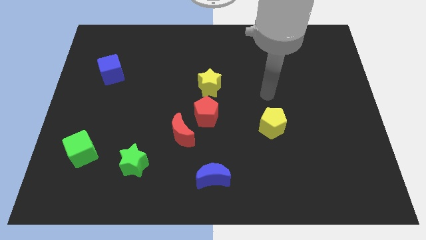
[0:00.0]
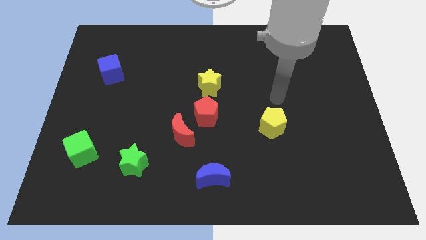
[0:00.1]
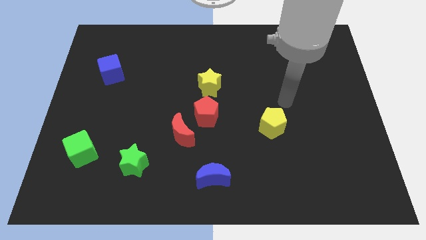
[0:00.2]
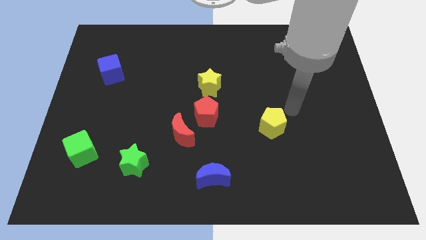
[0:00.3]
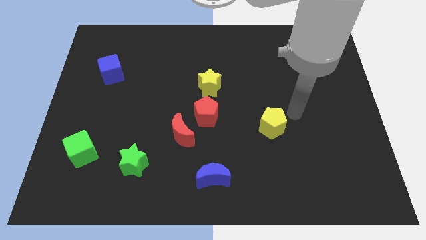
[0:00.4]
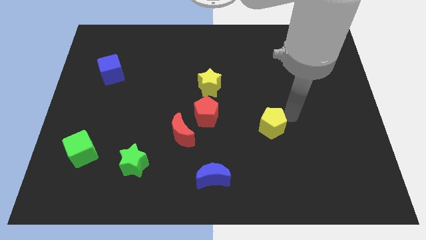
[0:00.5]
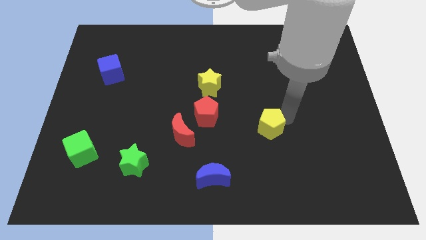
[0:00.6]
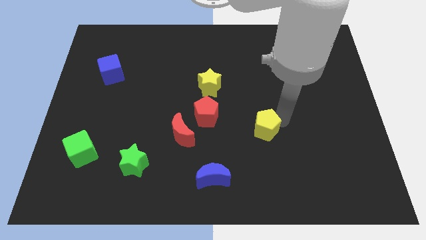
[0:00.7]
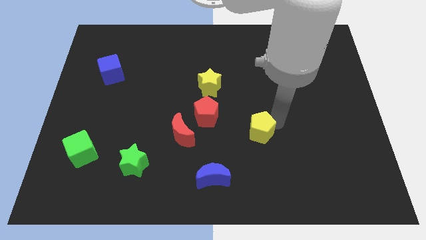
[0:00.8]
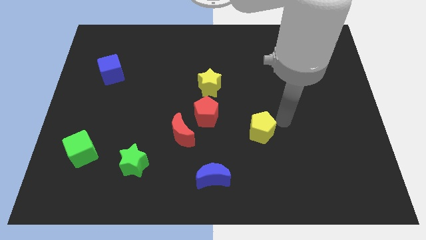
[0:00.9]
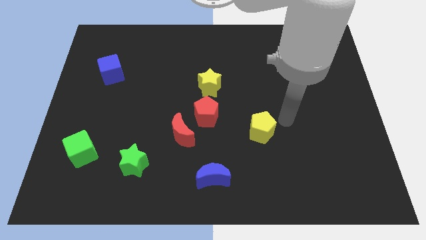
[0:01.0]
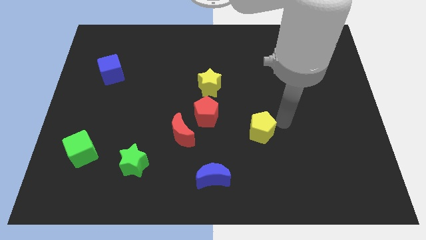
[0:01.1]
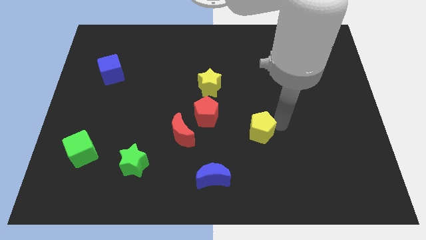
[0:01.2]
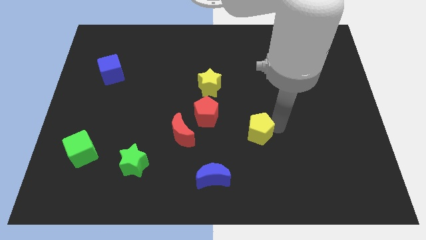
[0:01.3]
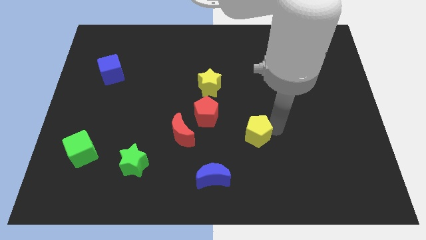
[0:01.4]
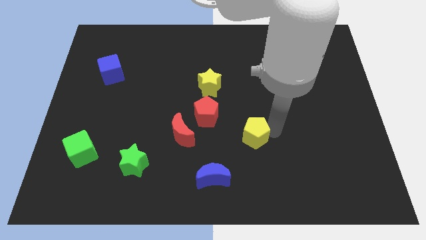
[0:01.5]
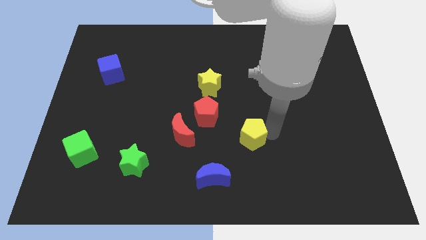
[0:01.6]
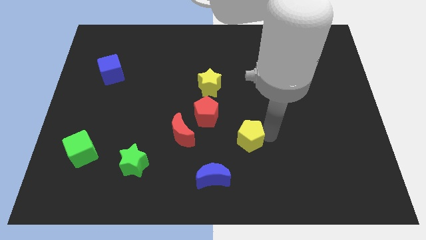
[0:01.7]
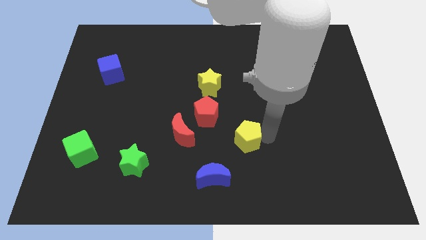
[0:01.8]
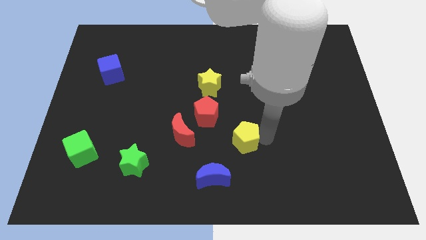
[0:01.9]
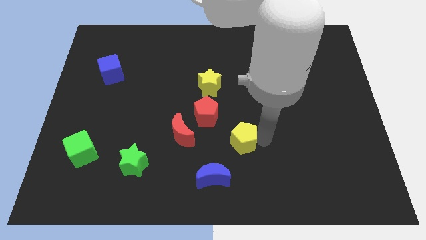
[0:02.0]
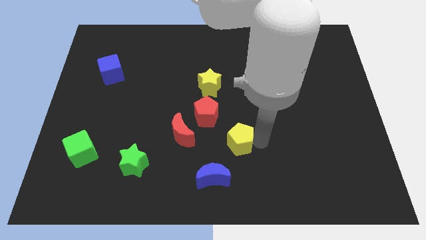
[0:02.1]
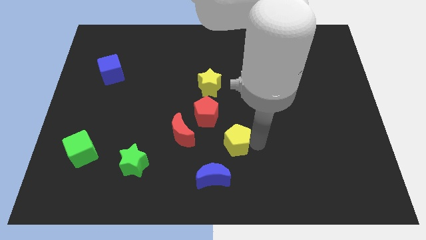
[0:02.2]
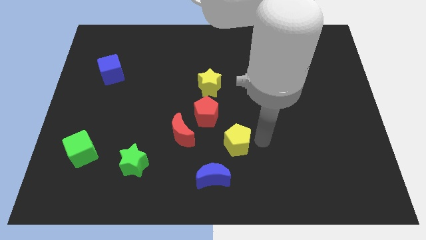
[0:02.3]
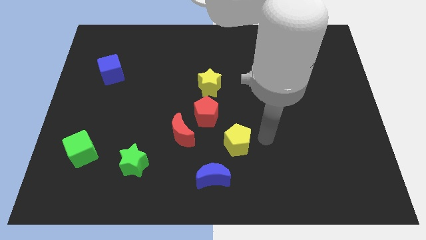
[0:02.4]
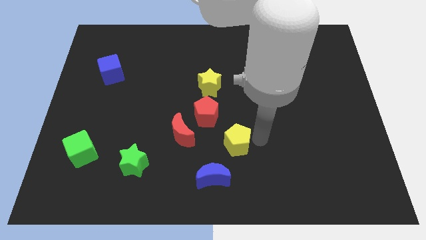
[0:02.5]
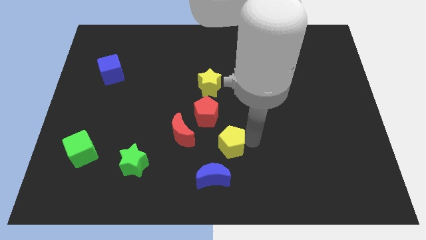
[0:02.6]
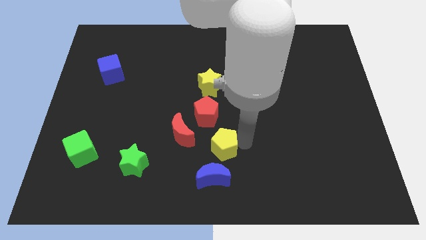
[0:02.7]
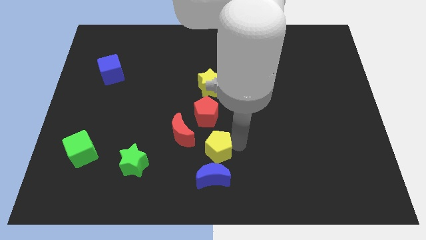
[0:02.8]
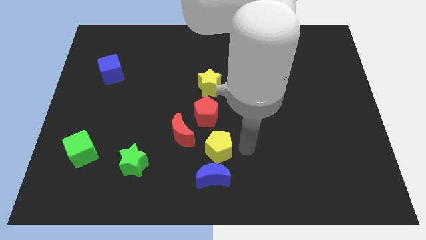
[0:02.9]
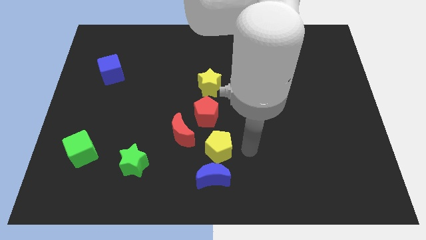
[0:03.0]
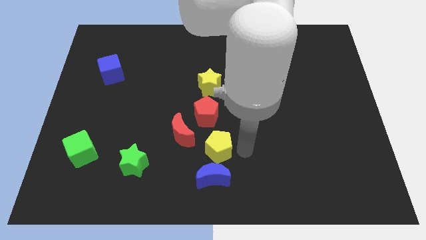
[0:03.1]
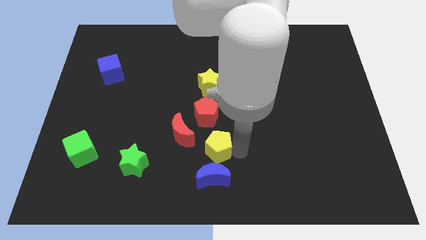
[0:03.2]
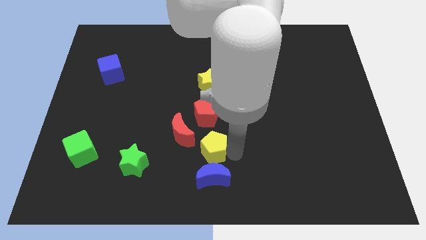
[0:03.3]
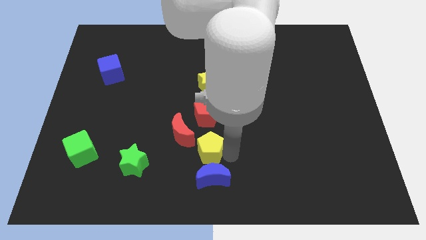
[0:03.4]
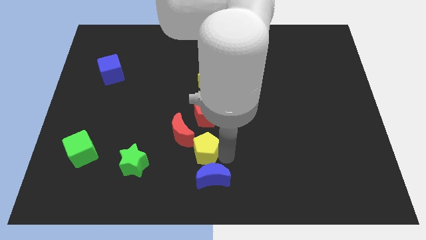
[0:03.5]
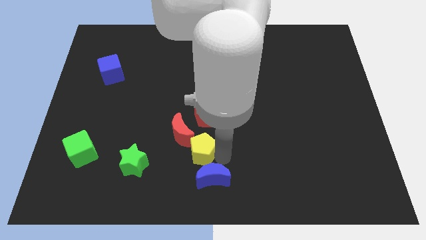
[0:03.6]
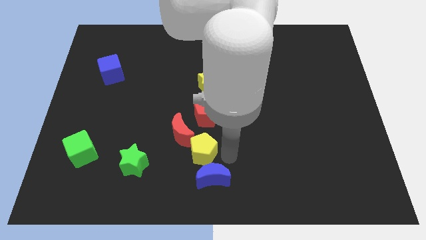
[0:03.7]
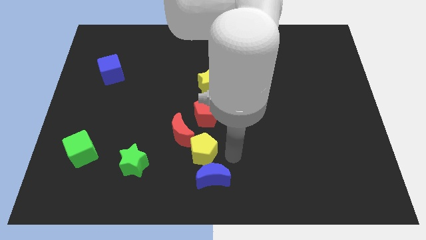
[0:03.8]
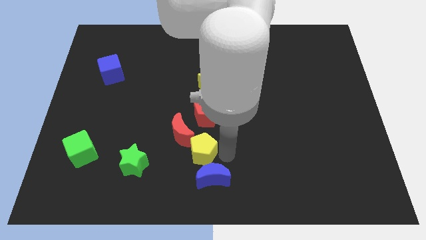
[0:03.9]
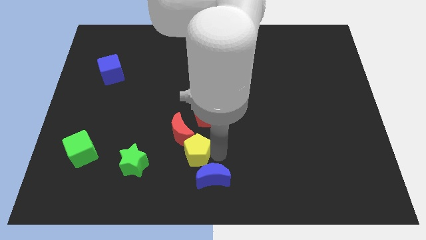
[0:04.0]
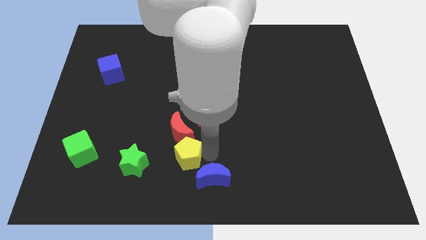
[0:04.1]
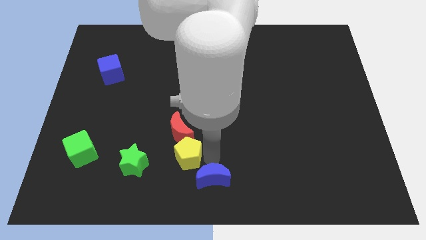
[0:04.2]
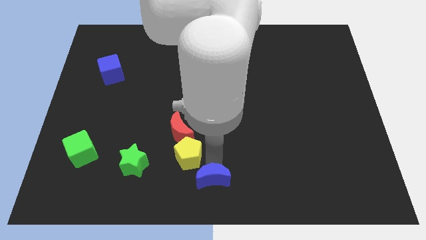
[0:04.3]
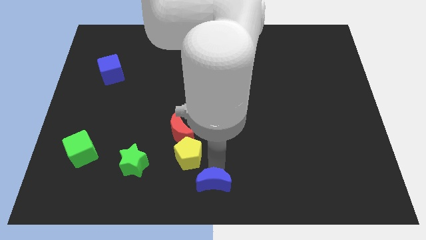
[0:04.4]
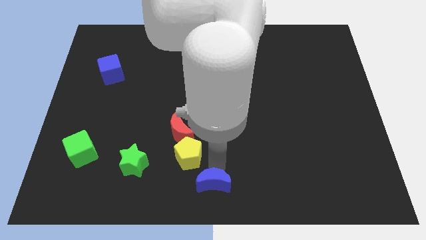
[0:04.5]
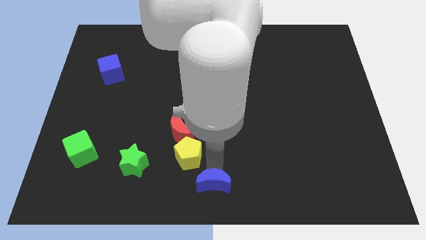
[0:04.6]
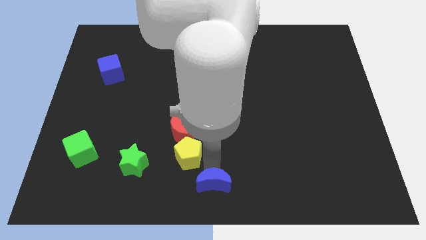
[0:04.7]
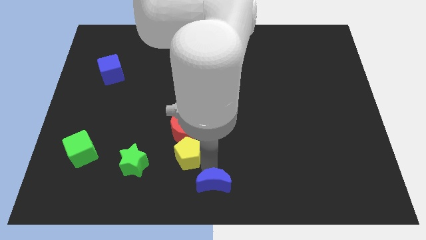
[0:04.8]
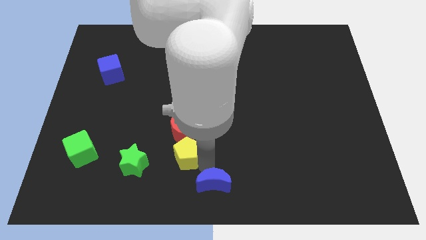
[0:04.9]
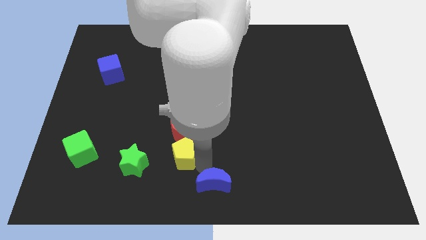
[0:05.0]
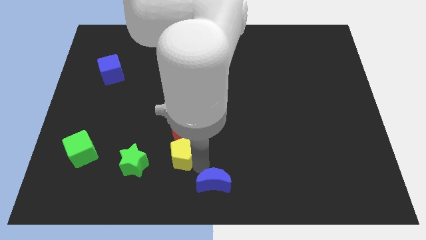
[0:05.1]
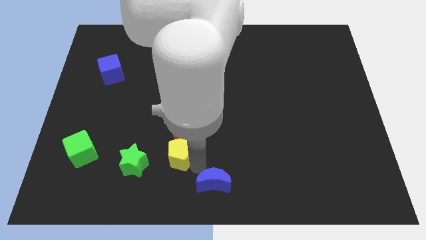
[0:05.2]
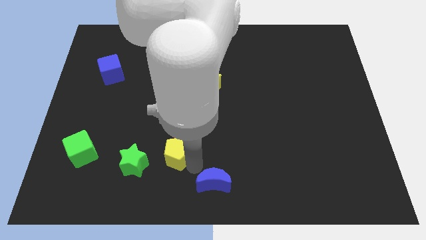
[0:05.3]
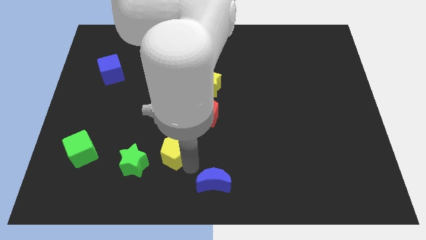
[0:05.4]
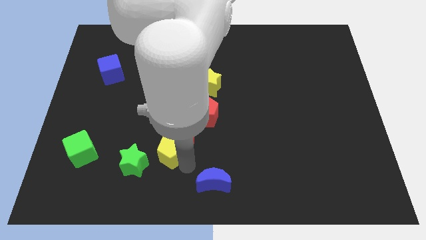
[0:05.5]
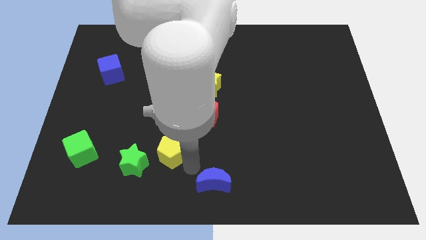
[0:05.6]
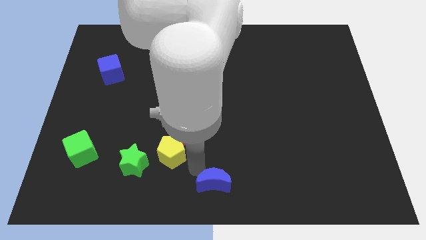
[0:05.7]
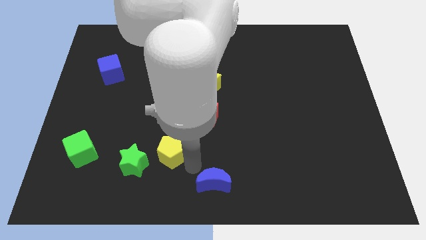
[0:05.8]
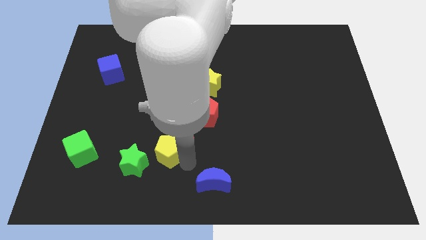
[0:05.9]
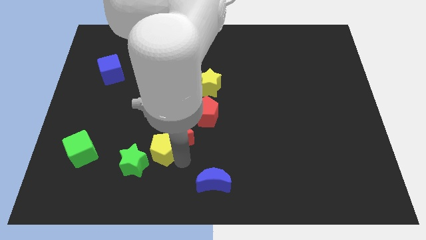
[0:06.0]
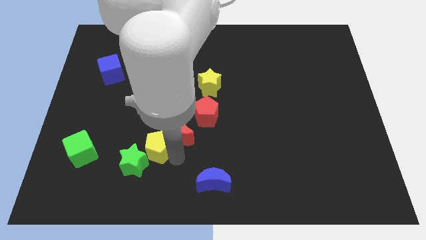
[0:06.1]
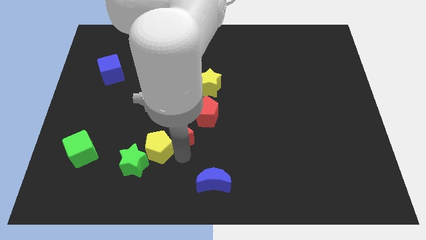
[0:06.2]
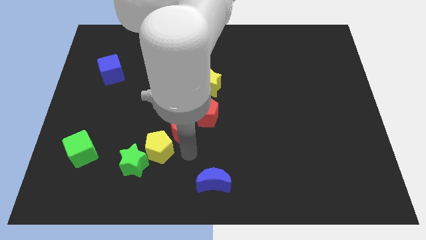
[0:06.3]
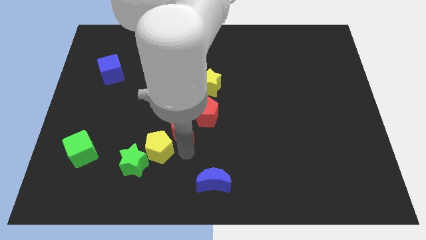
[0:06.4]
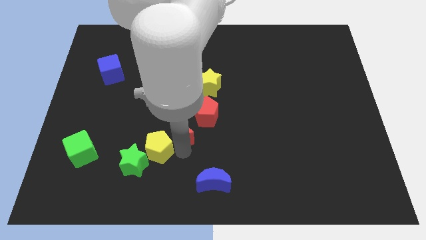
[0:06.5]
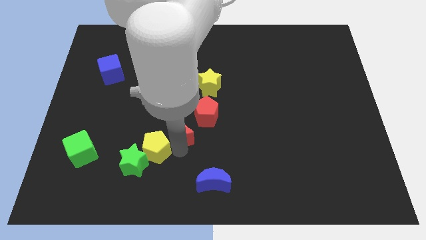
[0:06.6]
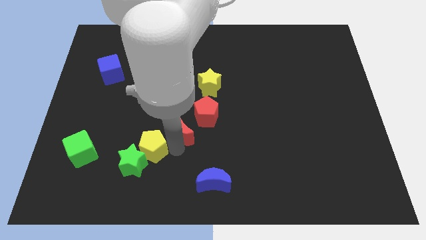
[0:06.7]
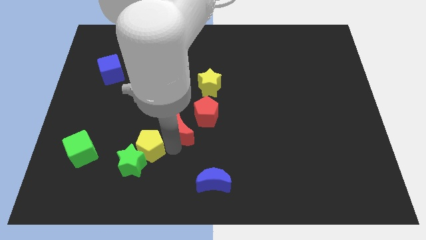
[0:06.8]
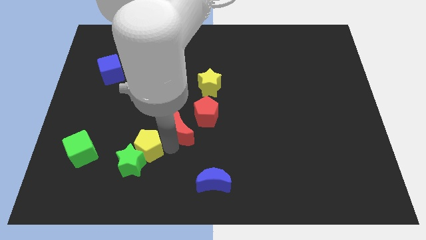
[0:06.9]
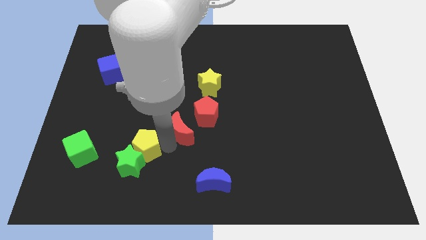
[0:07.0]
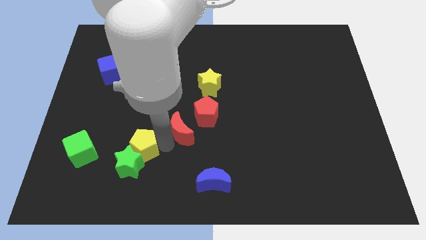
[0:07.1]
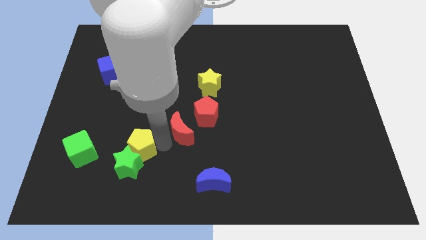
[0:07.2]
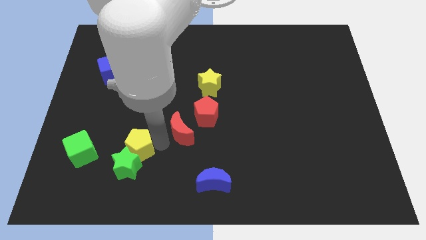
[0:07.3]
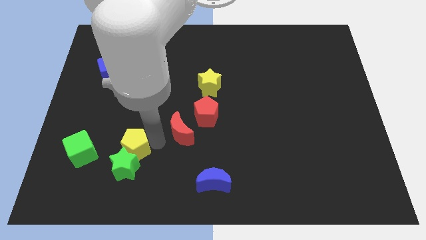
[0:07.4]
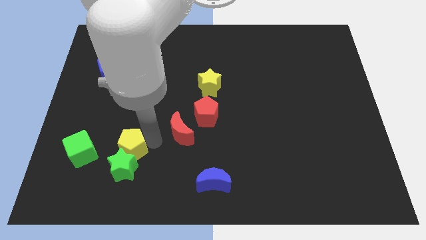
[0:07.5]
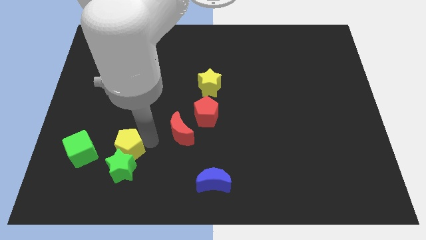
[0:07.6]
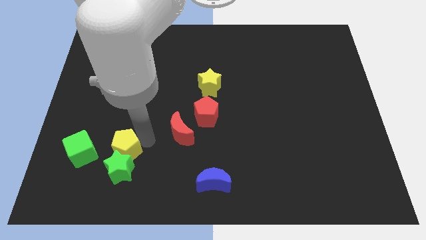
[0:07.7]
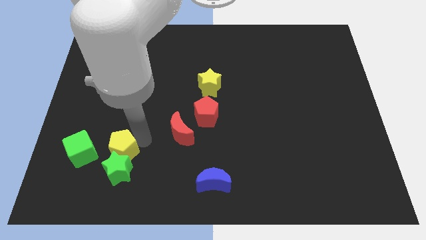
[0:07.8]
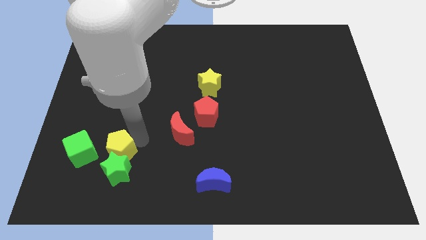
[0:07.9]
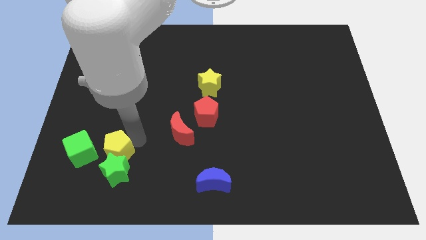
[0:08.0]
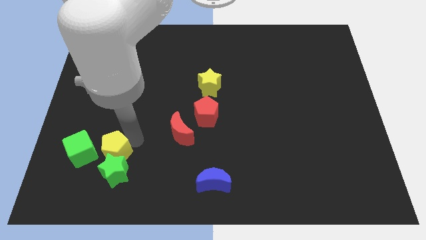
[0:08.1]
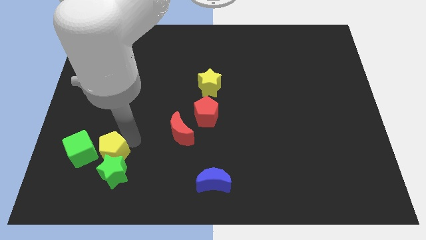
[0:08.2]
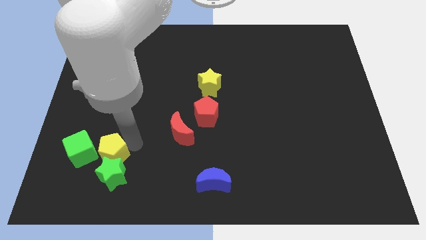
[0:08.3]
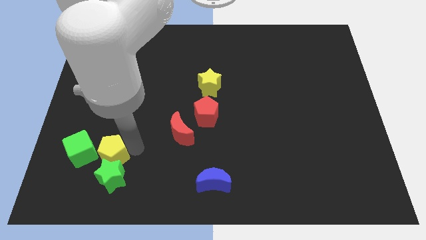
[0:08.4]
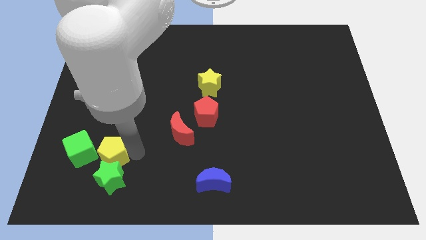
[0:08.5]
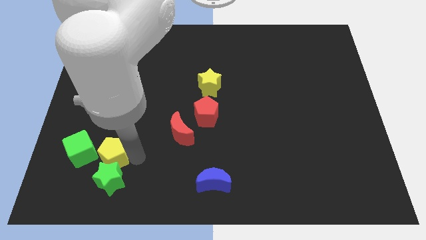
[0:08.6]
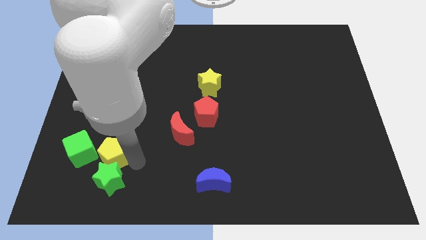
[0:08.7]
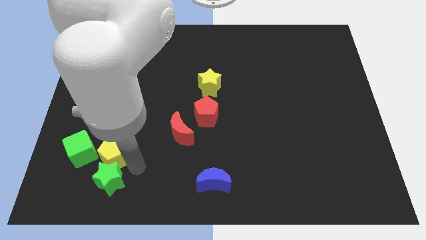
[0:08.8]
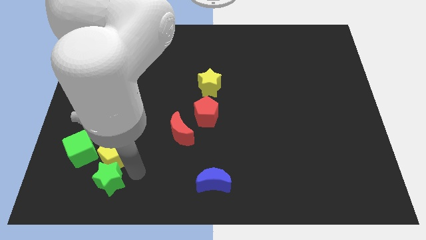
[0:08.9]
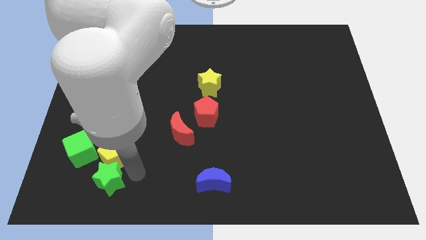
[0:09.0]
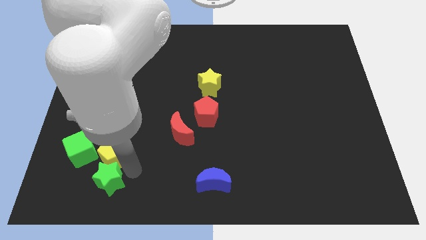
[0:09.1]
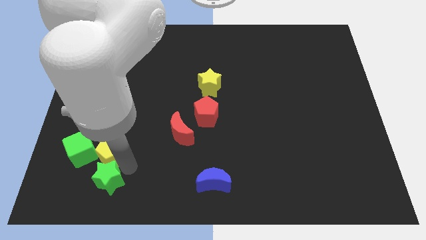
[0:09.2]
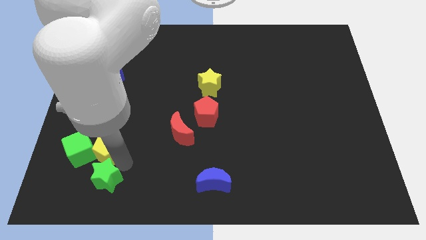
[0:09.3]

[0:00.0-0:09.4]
move the yellow pentagon towards the green cube
